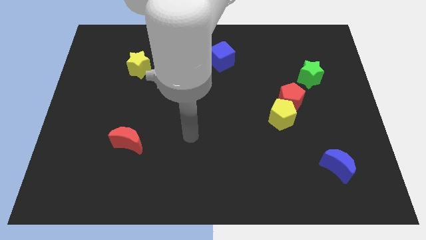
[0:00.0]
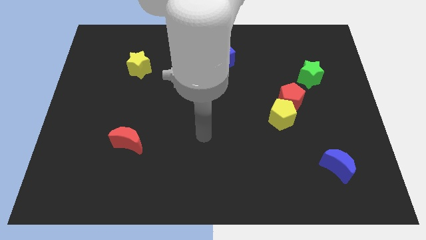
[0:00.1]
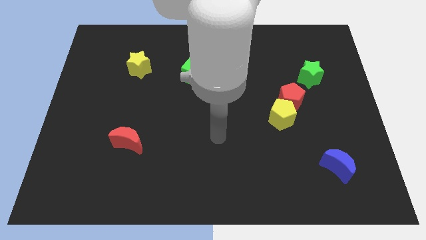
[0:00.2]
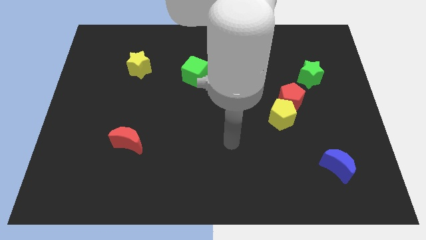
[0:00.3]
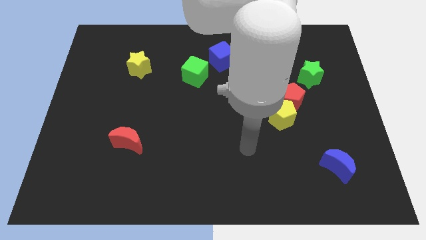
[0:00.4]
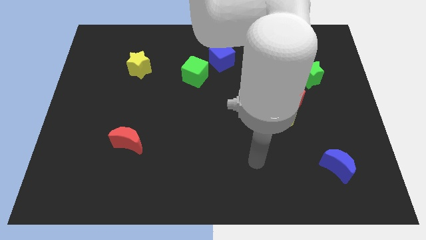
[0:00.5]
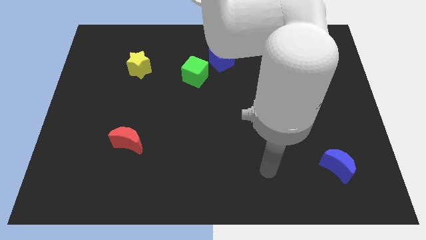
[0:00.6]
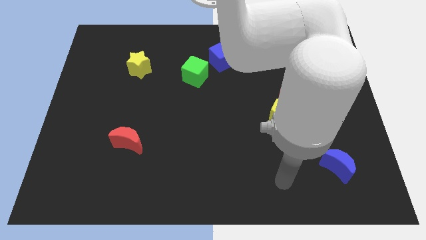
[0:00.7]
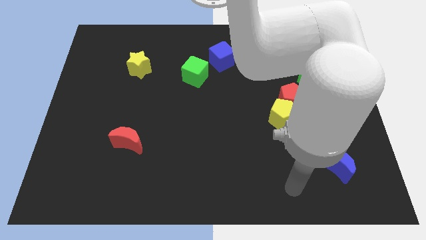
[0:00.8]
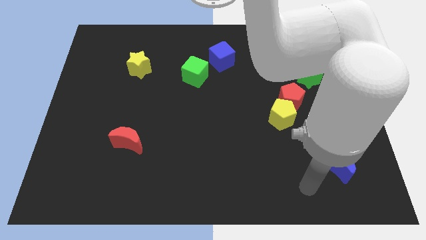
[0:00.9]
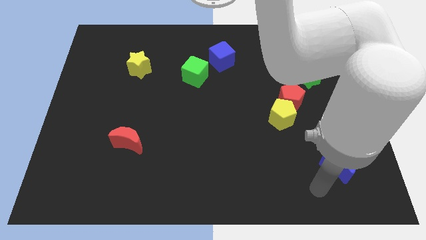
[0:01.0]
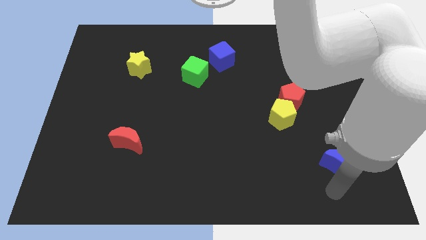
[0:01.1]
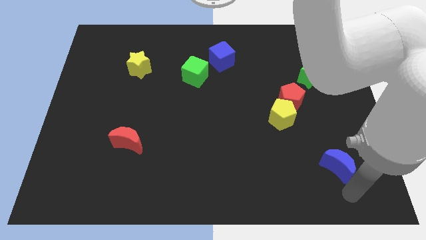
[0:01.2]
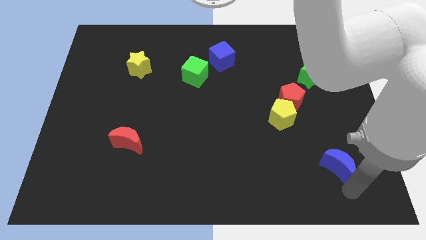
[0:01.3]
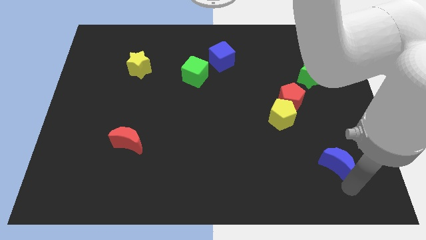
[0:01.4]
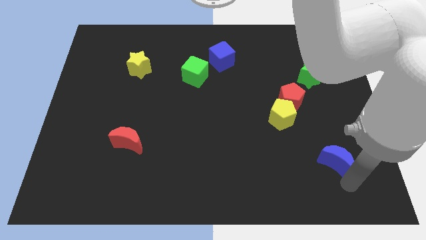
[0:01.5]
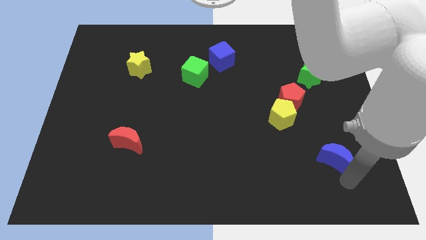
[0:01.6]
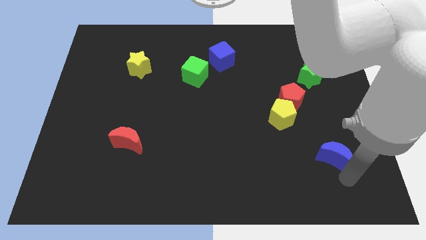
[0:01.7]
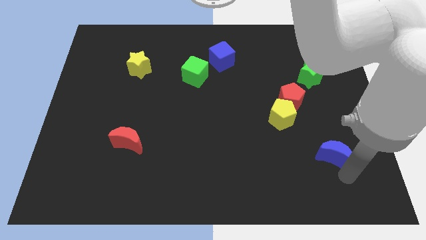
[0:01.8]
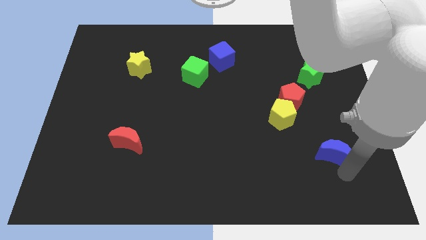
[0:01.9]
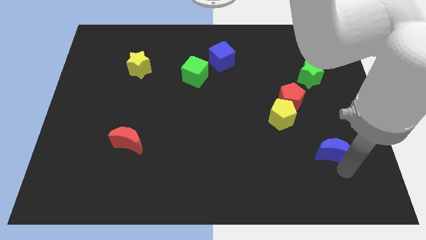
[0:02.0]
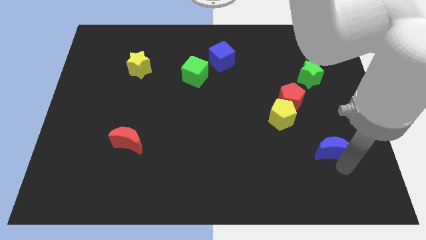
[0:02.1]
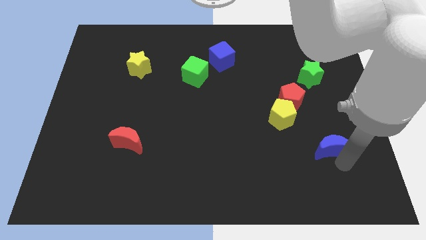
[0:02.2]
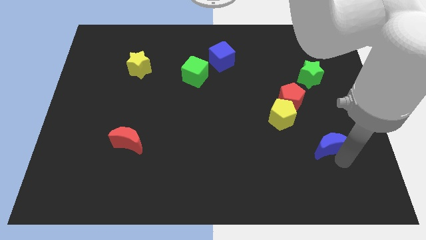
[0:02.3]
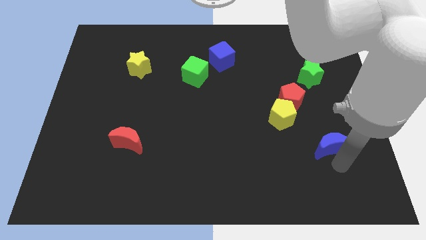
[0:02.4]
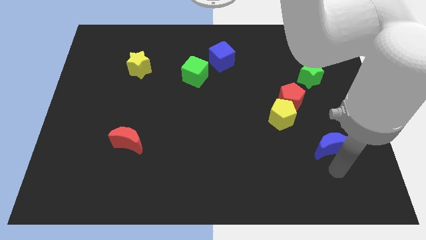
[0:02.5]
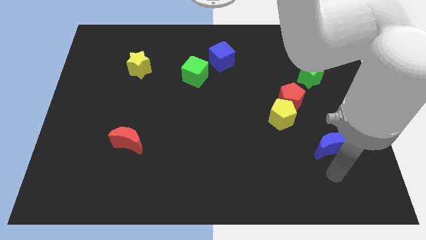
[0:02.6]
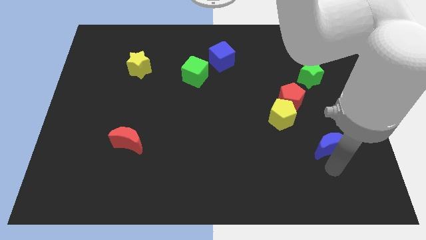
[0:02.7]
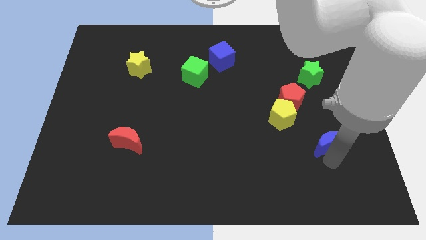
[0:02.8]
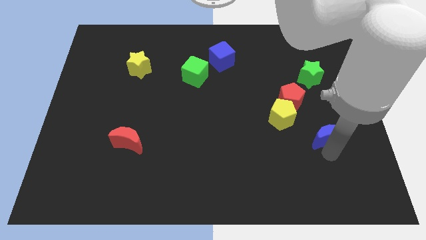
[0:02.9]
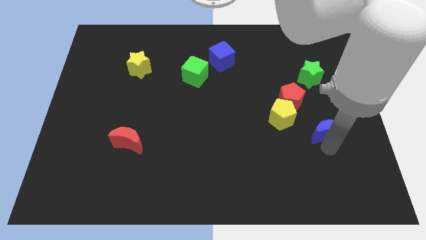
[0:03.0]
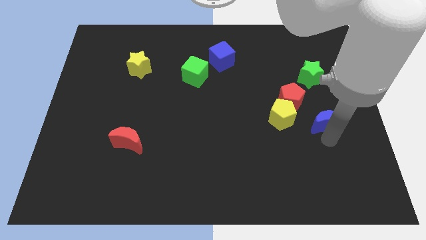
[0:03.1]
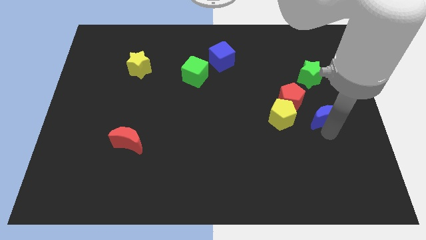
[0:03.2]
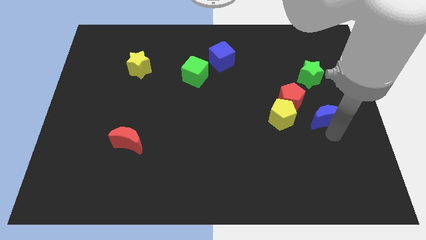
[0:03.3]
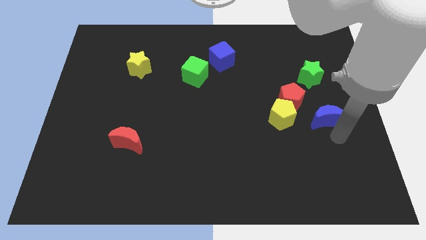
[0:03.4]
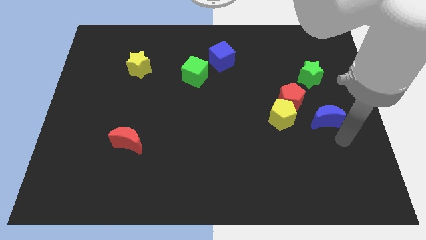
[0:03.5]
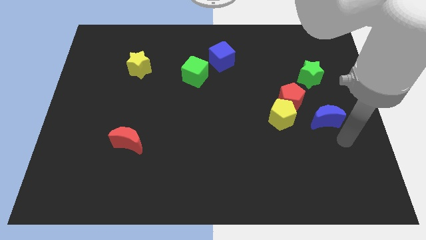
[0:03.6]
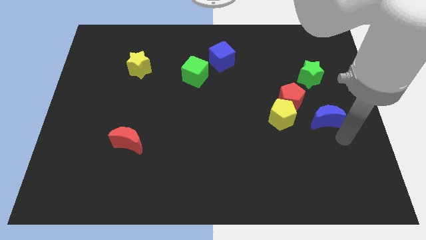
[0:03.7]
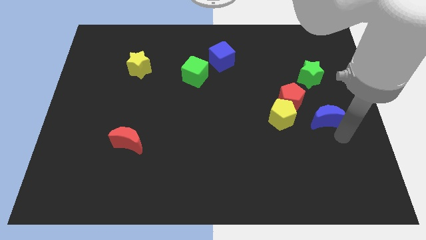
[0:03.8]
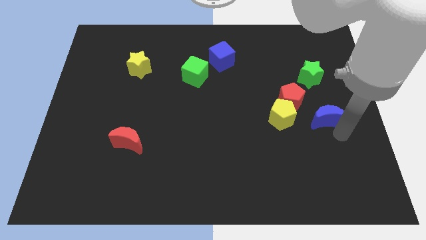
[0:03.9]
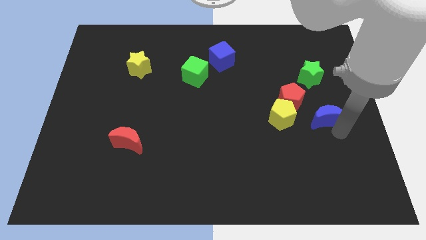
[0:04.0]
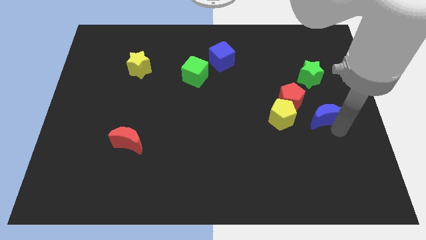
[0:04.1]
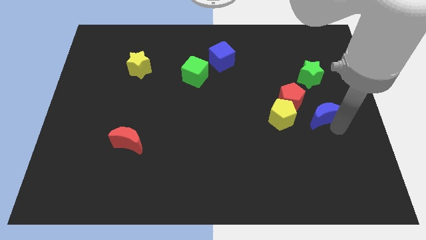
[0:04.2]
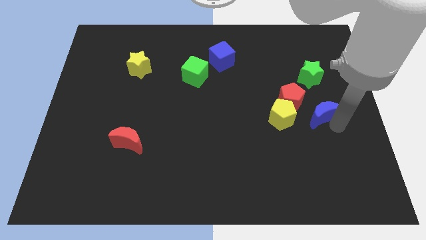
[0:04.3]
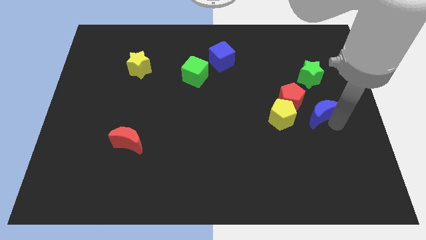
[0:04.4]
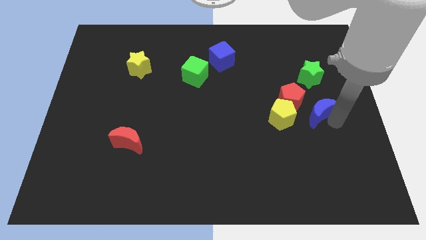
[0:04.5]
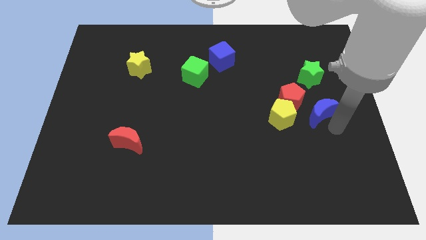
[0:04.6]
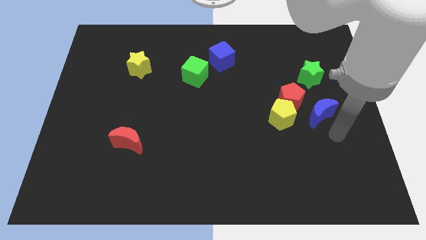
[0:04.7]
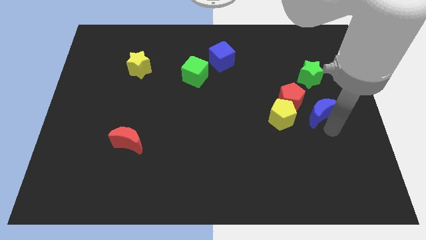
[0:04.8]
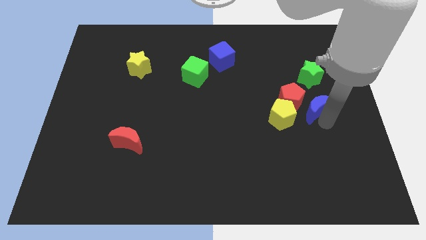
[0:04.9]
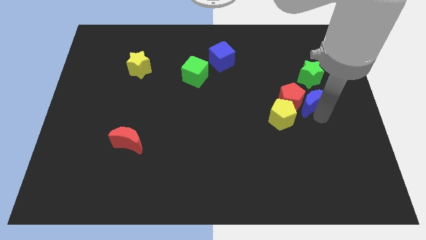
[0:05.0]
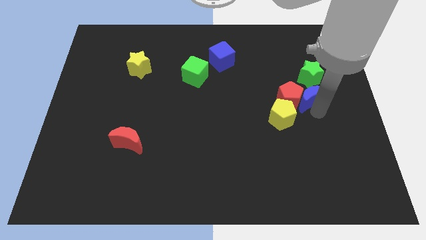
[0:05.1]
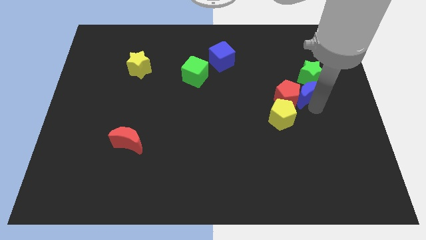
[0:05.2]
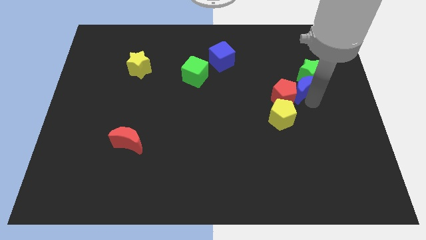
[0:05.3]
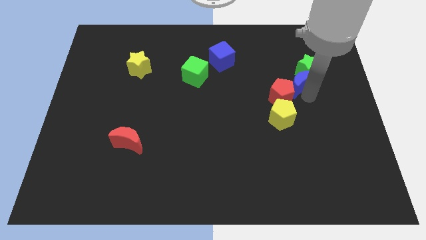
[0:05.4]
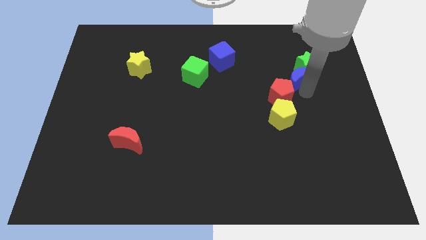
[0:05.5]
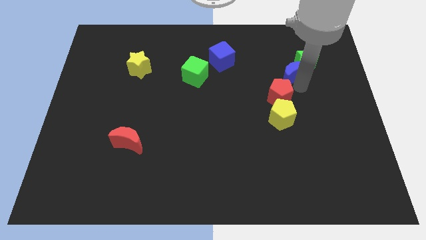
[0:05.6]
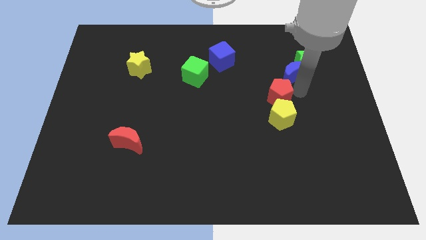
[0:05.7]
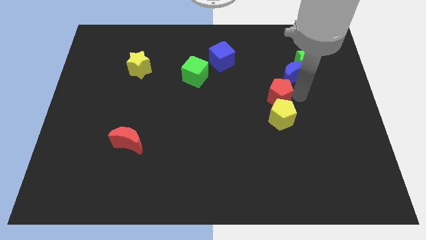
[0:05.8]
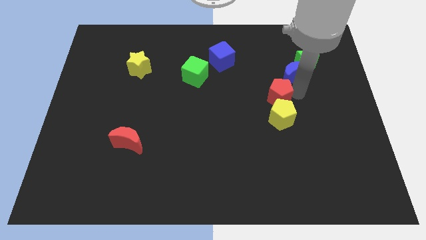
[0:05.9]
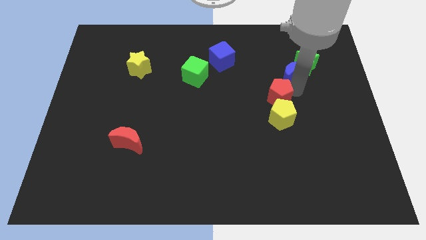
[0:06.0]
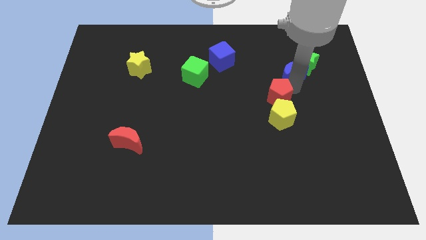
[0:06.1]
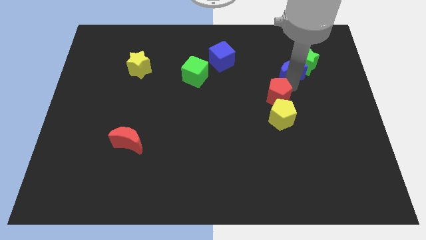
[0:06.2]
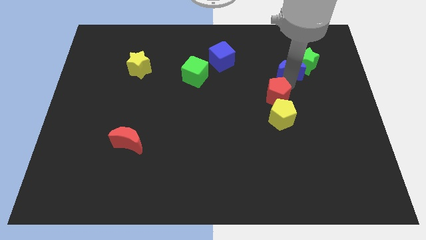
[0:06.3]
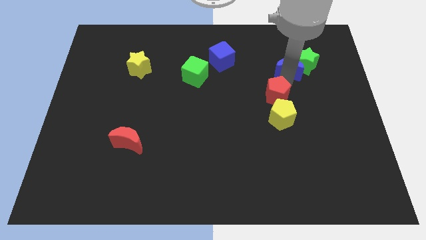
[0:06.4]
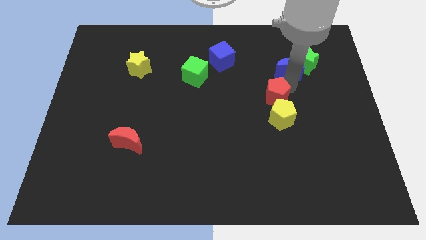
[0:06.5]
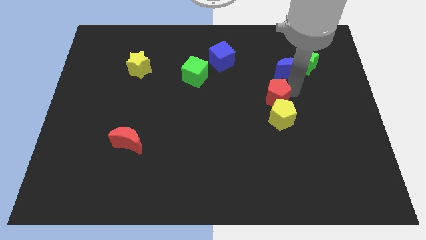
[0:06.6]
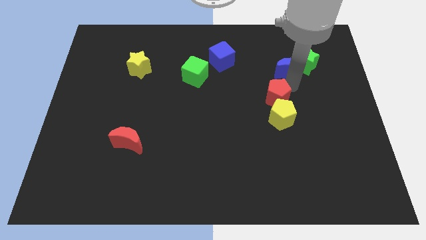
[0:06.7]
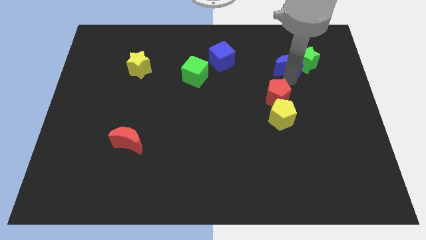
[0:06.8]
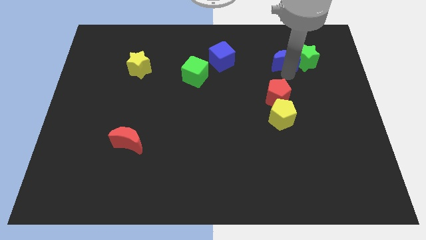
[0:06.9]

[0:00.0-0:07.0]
push the blue moon diagonally up and to the left of the green star
